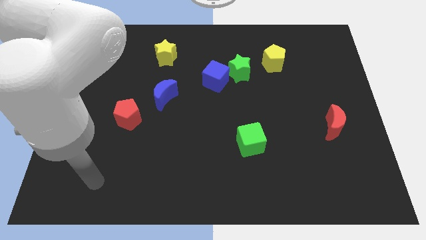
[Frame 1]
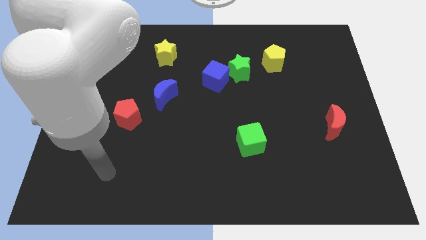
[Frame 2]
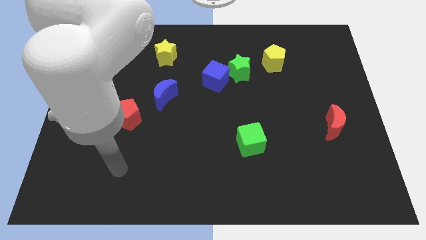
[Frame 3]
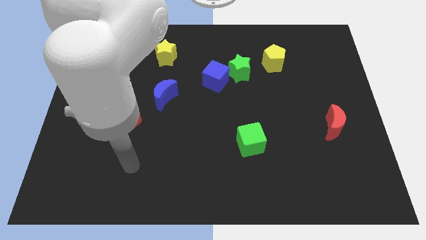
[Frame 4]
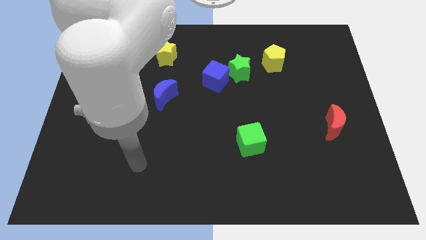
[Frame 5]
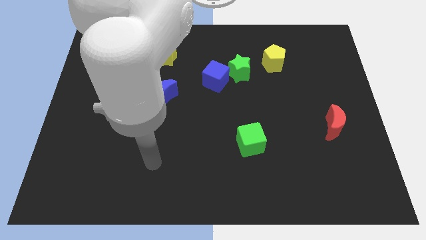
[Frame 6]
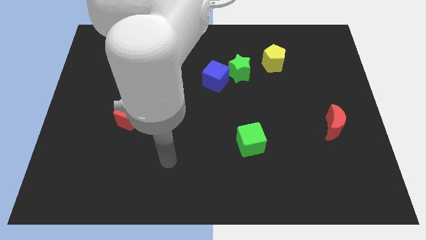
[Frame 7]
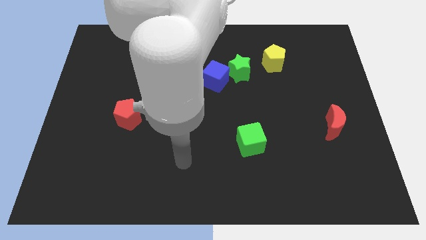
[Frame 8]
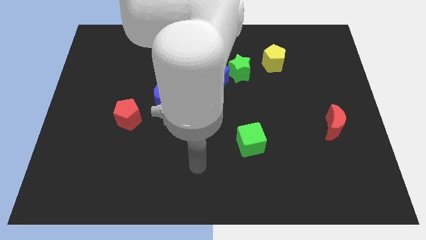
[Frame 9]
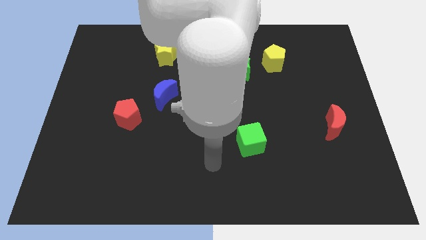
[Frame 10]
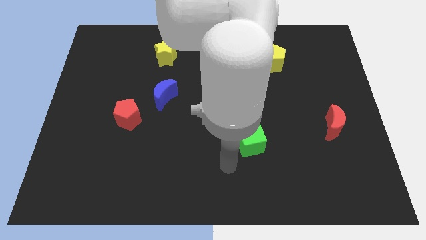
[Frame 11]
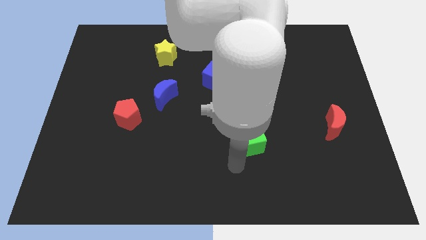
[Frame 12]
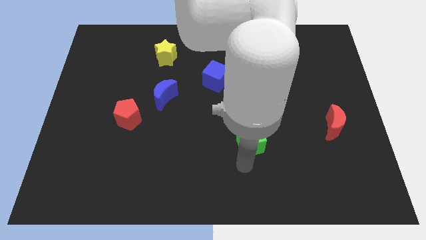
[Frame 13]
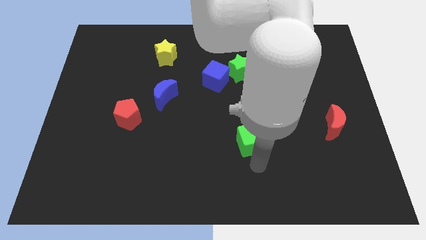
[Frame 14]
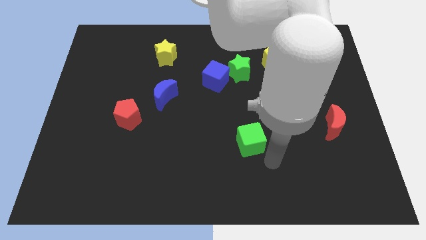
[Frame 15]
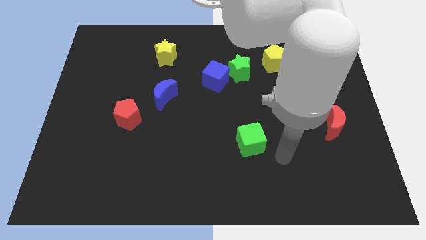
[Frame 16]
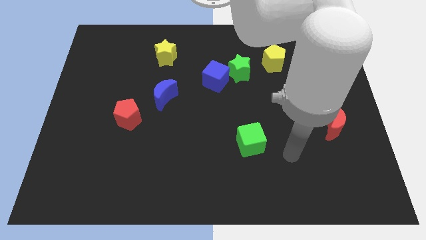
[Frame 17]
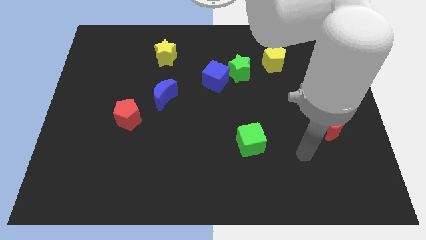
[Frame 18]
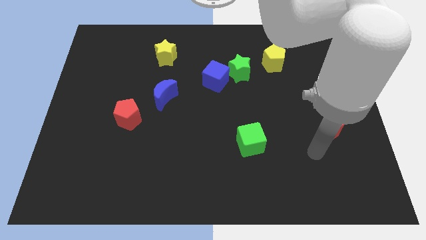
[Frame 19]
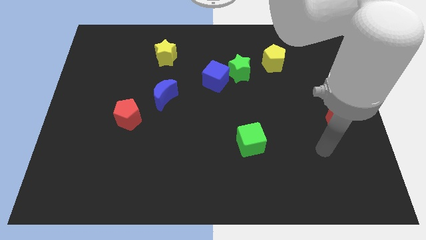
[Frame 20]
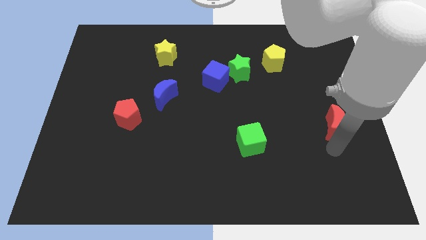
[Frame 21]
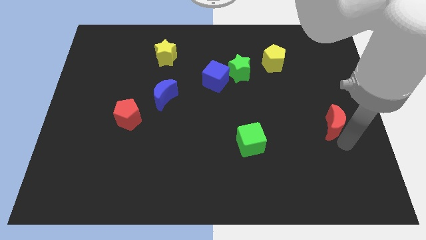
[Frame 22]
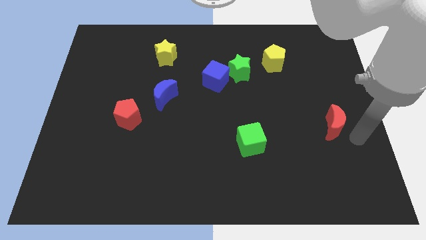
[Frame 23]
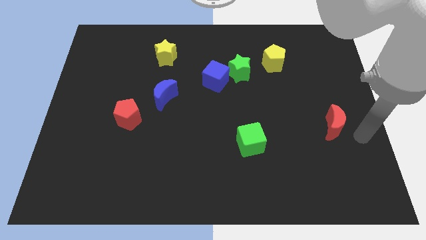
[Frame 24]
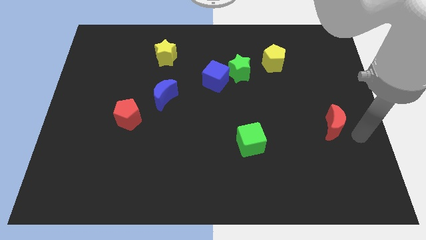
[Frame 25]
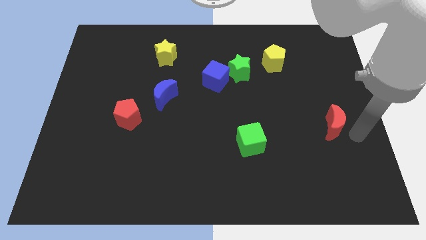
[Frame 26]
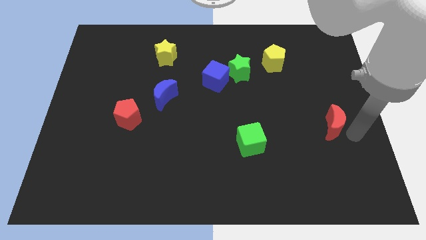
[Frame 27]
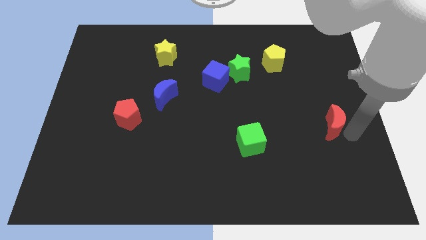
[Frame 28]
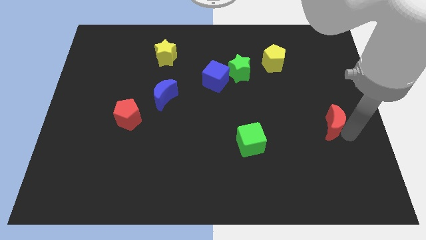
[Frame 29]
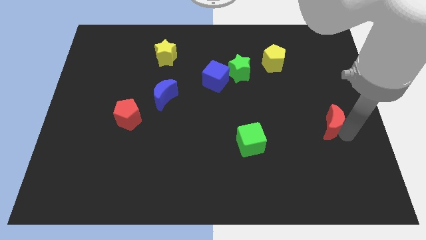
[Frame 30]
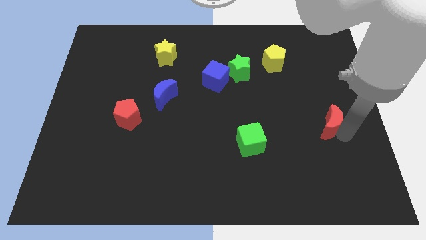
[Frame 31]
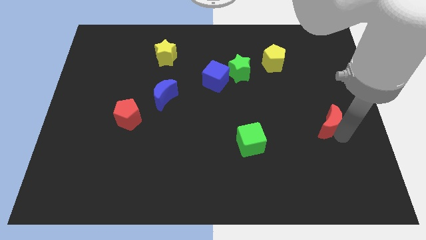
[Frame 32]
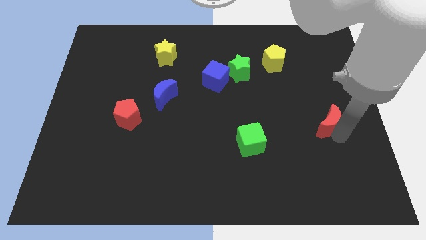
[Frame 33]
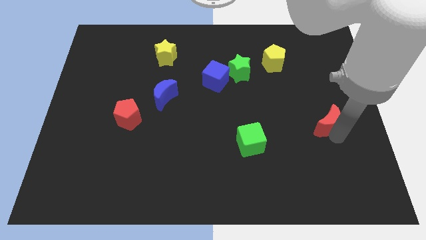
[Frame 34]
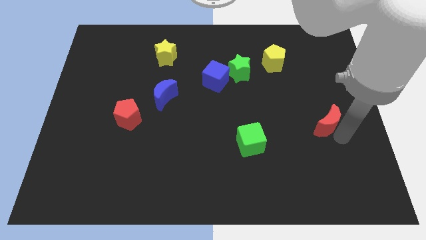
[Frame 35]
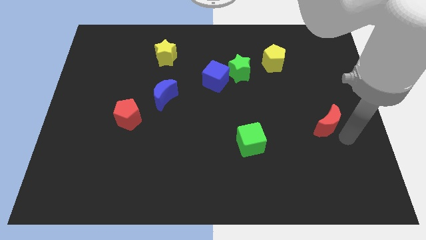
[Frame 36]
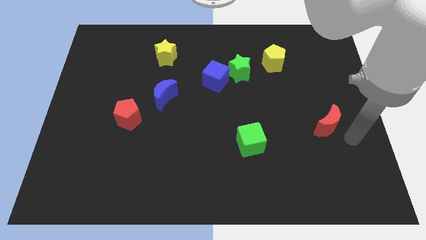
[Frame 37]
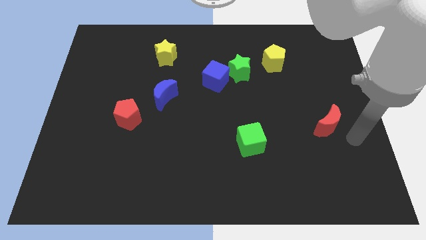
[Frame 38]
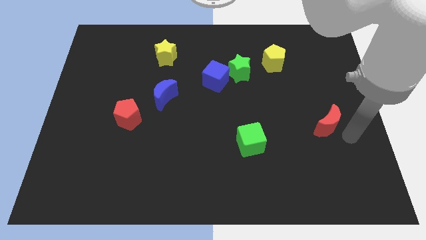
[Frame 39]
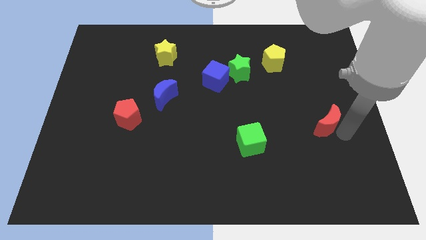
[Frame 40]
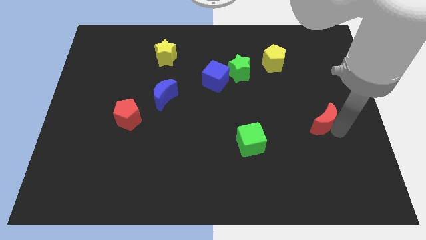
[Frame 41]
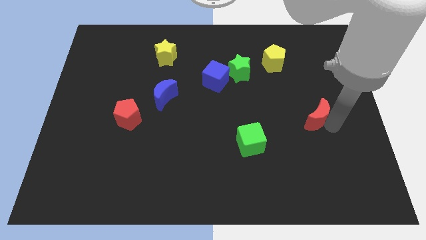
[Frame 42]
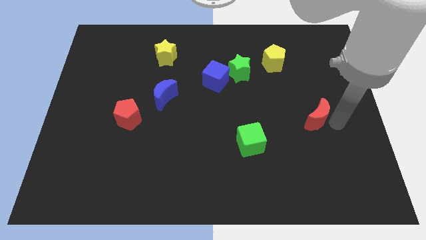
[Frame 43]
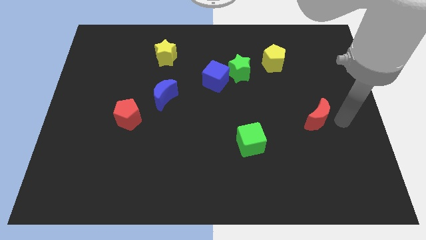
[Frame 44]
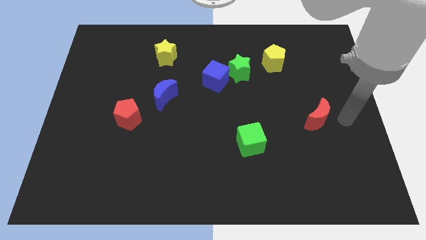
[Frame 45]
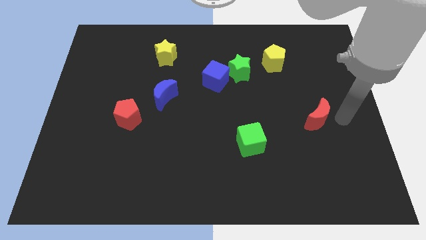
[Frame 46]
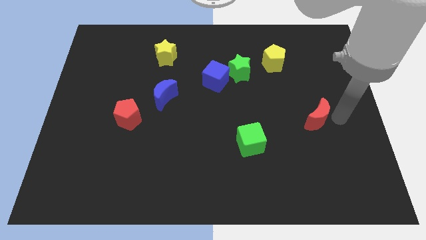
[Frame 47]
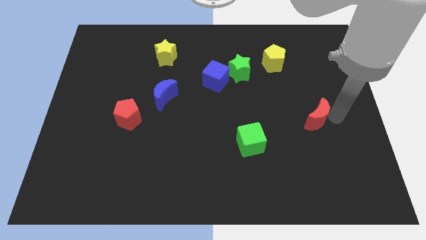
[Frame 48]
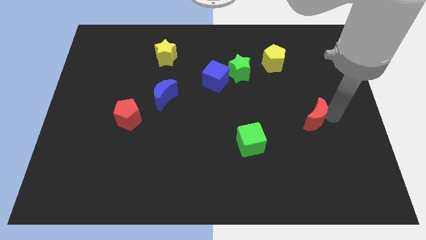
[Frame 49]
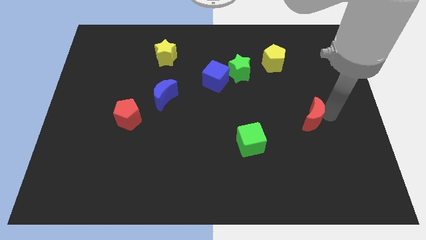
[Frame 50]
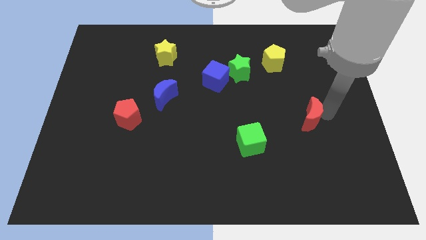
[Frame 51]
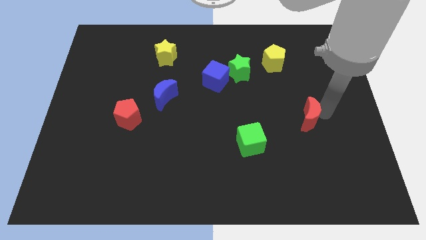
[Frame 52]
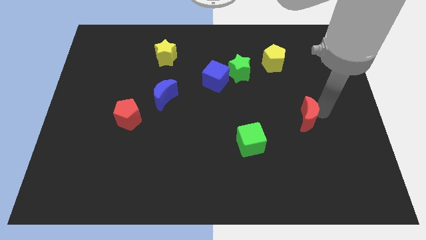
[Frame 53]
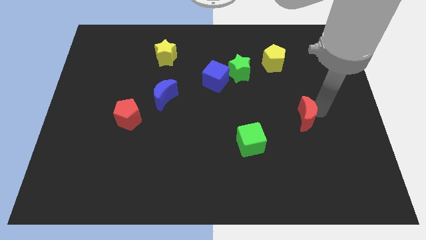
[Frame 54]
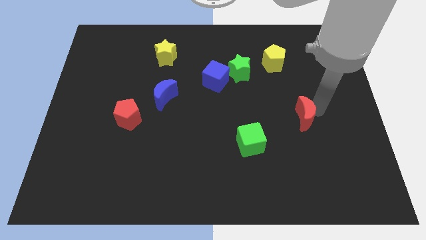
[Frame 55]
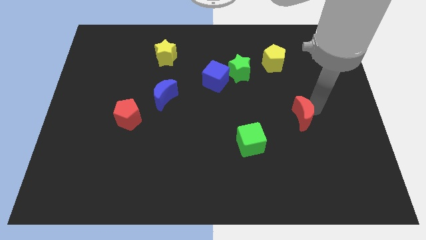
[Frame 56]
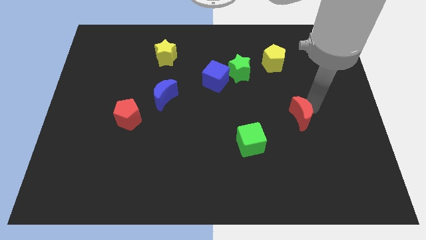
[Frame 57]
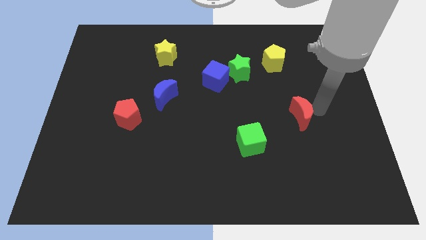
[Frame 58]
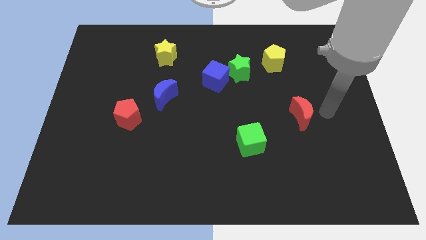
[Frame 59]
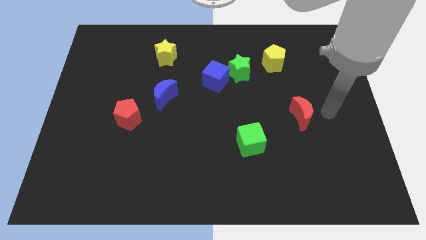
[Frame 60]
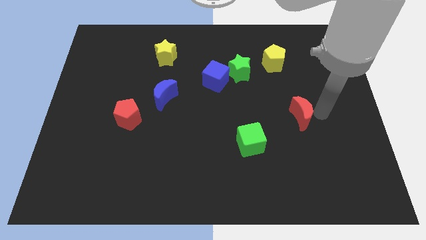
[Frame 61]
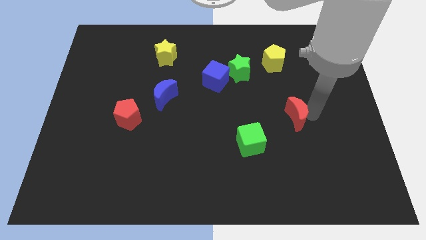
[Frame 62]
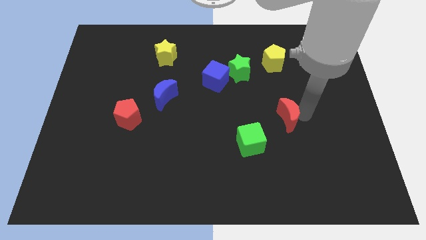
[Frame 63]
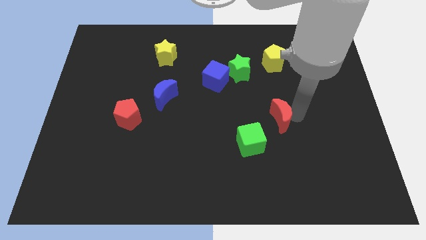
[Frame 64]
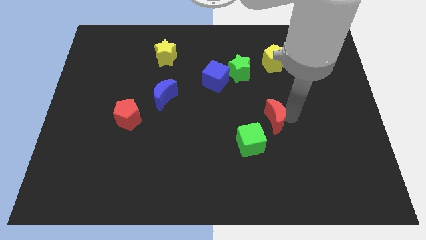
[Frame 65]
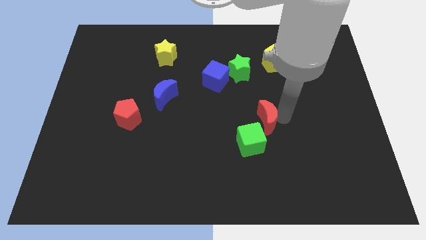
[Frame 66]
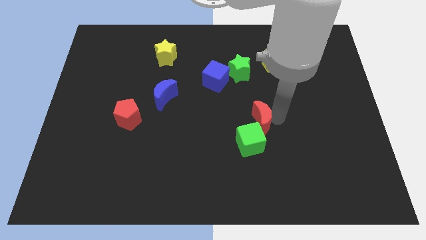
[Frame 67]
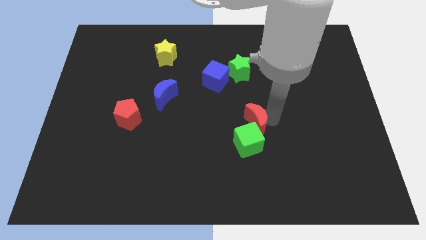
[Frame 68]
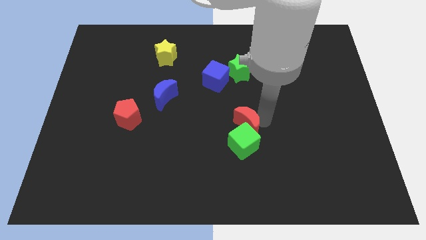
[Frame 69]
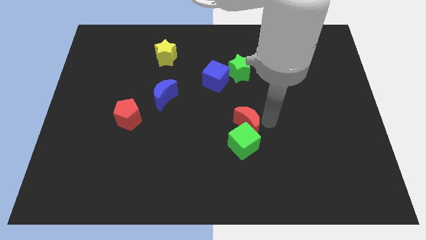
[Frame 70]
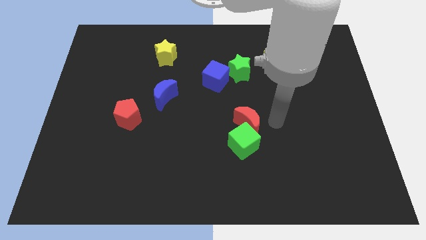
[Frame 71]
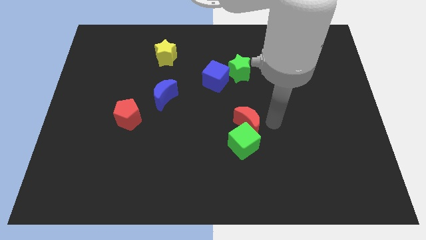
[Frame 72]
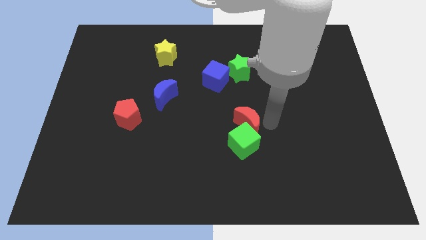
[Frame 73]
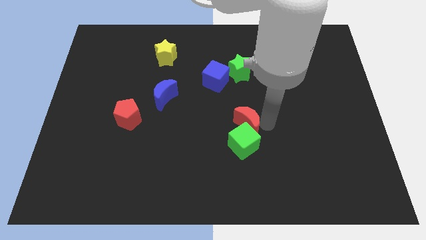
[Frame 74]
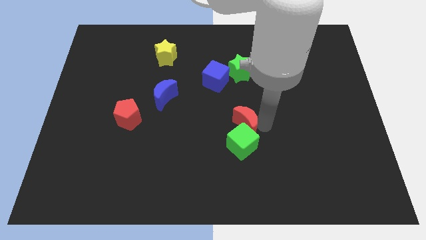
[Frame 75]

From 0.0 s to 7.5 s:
push the red moon left

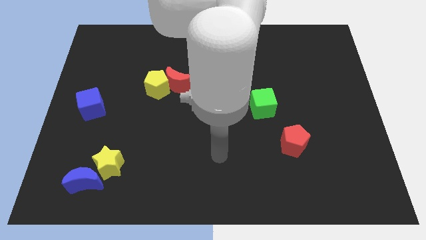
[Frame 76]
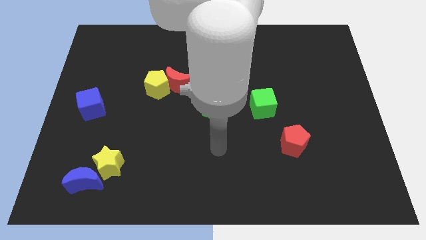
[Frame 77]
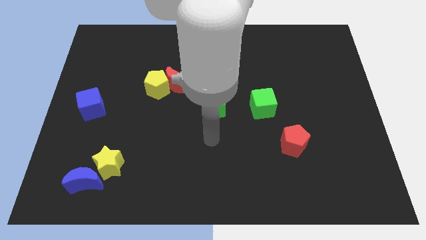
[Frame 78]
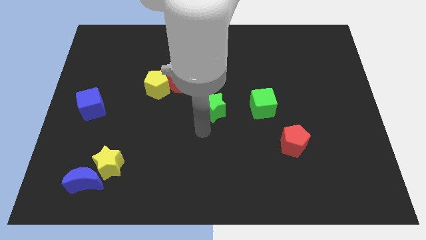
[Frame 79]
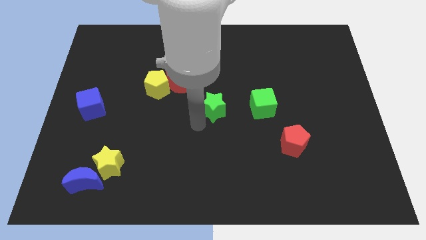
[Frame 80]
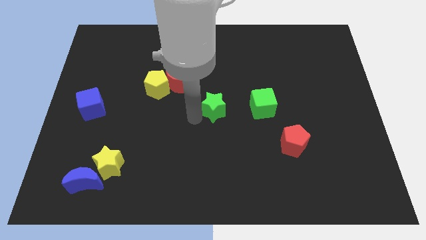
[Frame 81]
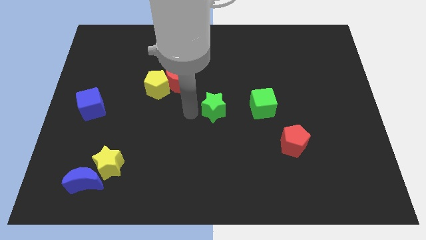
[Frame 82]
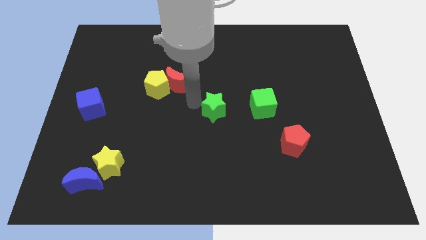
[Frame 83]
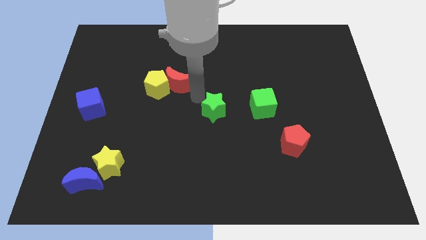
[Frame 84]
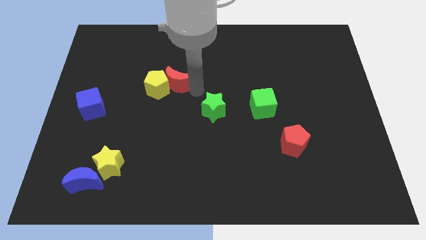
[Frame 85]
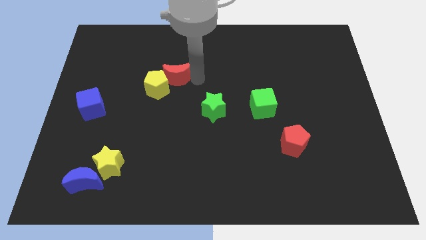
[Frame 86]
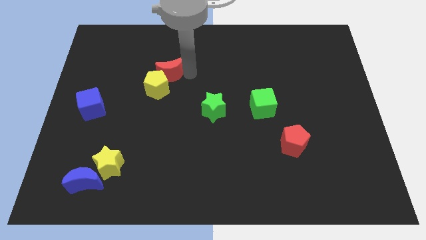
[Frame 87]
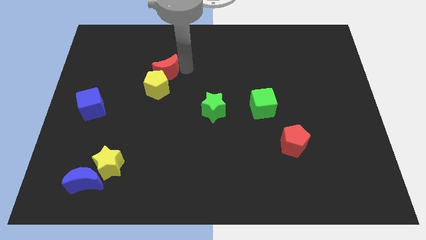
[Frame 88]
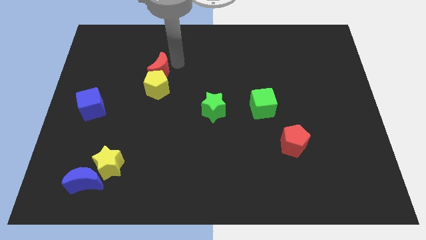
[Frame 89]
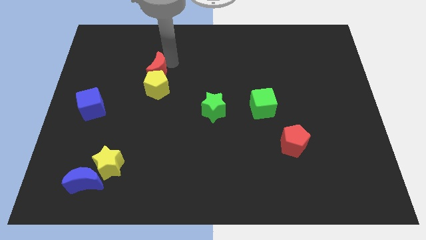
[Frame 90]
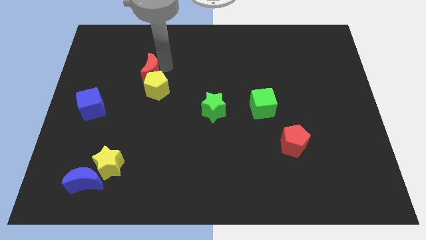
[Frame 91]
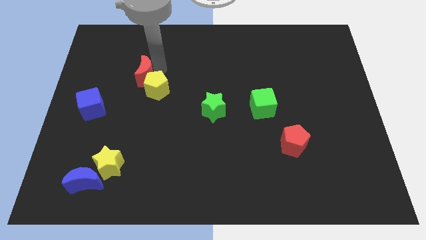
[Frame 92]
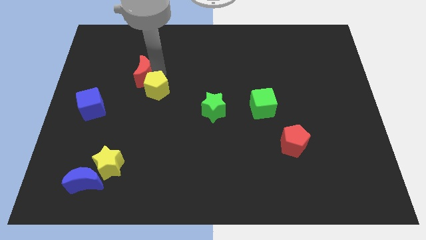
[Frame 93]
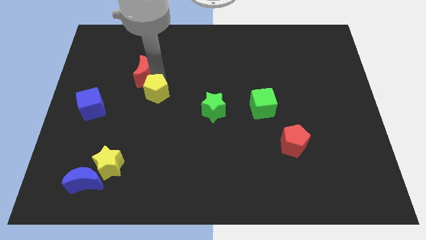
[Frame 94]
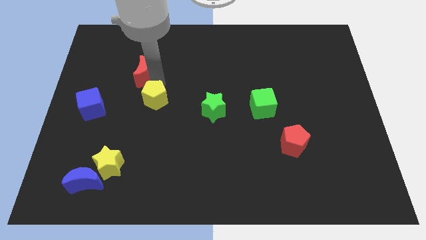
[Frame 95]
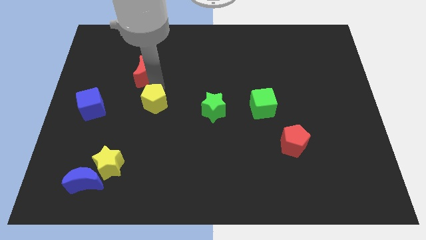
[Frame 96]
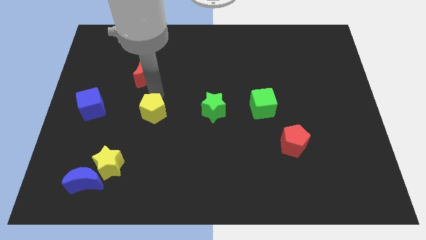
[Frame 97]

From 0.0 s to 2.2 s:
slide the yellow pentagon down a bit
